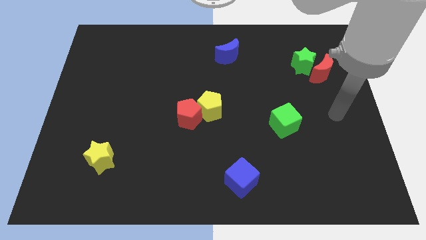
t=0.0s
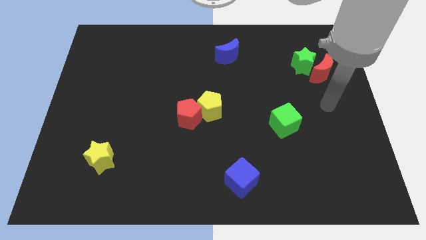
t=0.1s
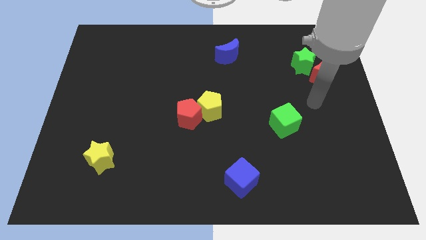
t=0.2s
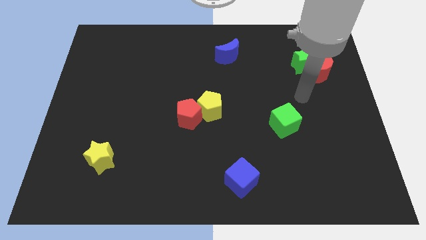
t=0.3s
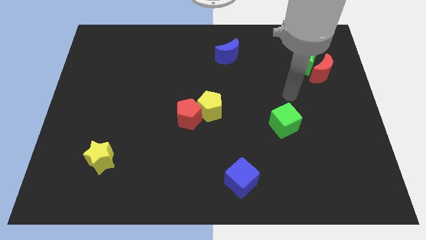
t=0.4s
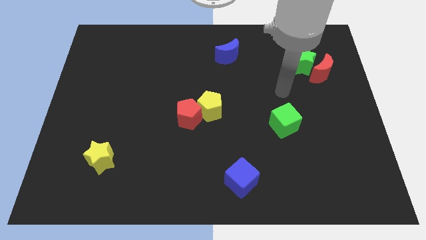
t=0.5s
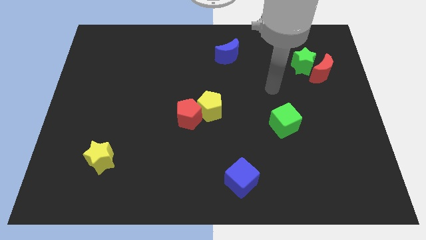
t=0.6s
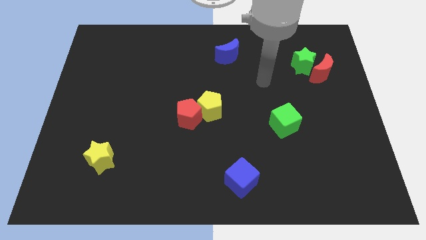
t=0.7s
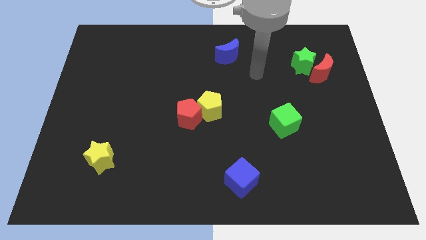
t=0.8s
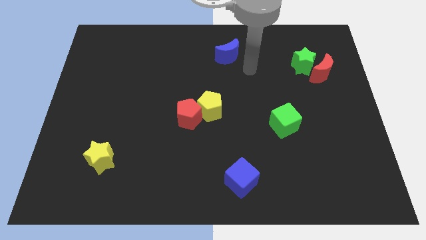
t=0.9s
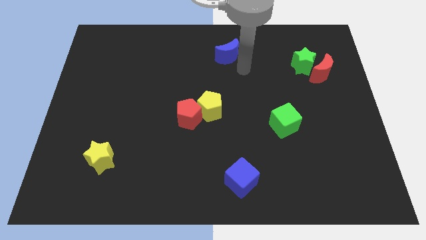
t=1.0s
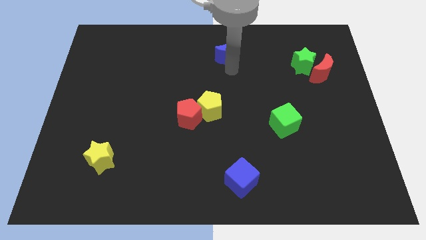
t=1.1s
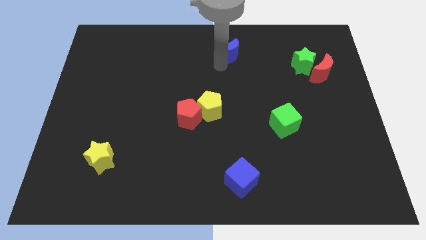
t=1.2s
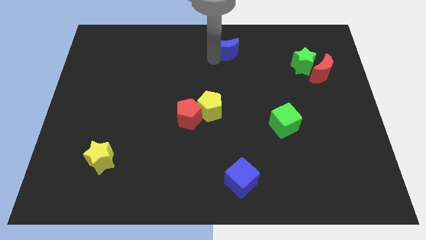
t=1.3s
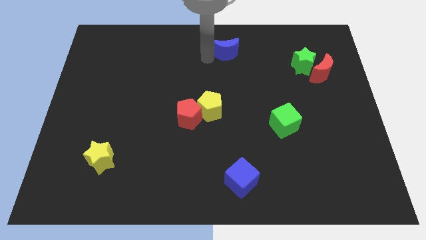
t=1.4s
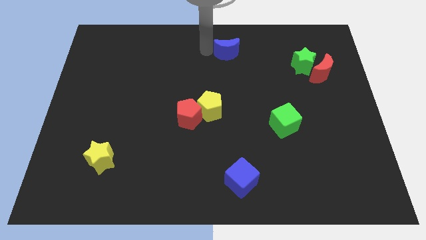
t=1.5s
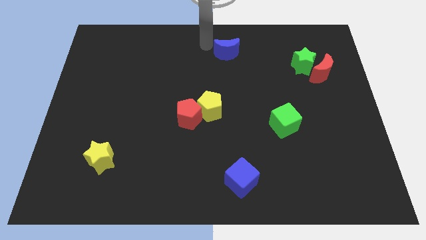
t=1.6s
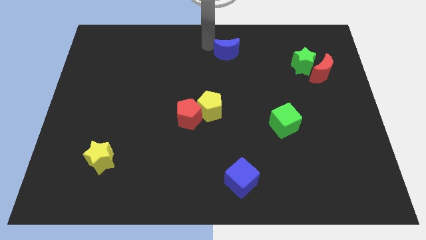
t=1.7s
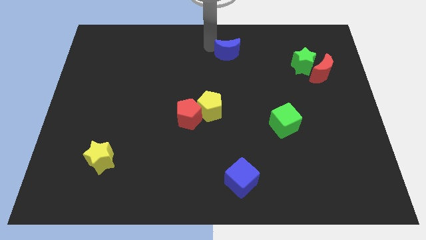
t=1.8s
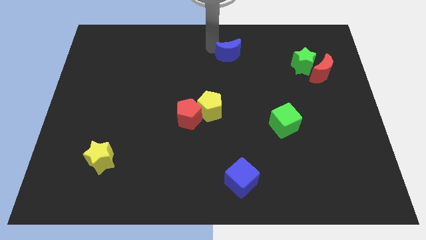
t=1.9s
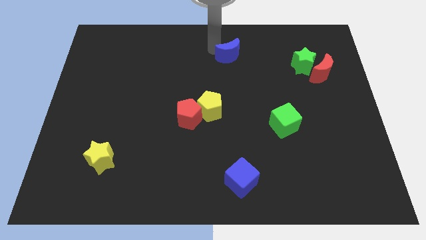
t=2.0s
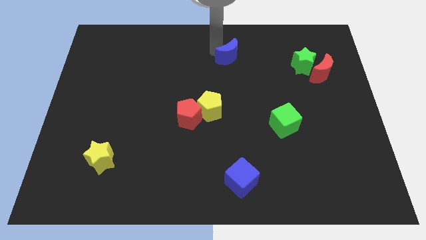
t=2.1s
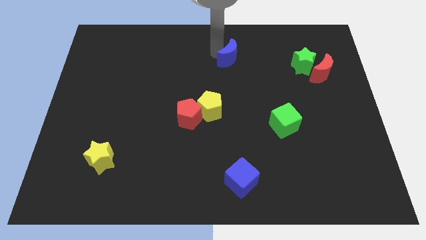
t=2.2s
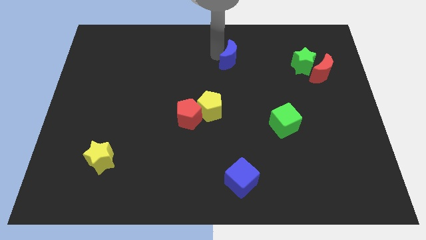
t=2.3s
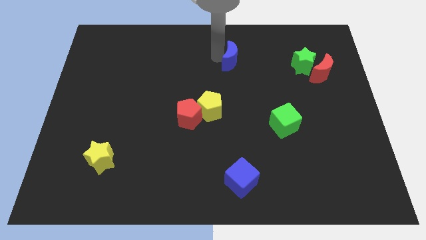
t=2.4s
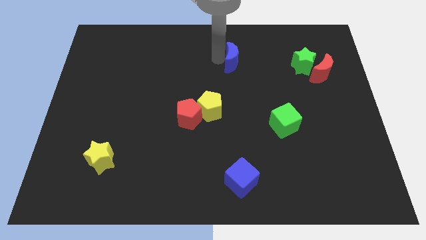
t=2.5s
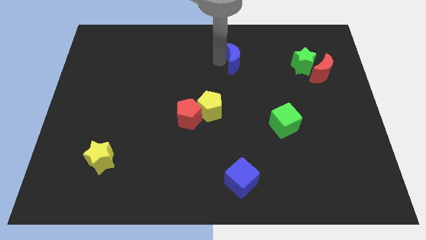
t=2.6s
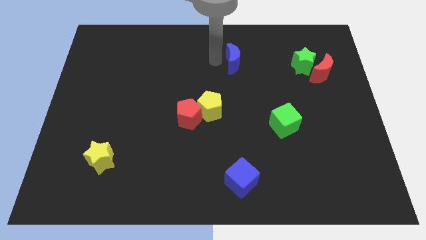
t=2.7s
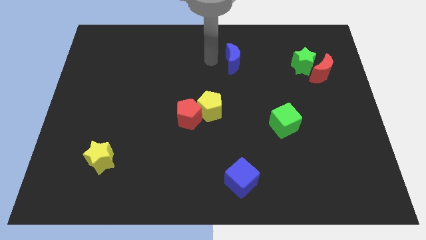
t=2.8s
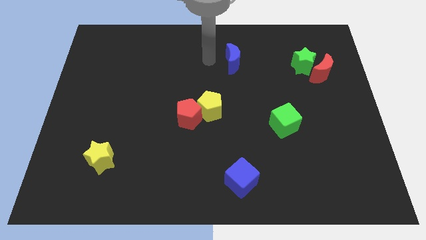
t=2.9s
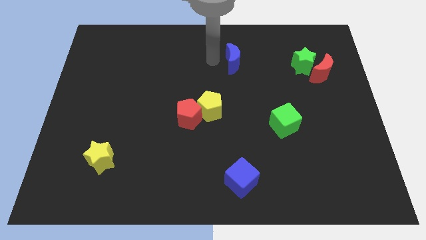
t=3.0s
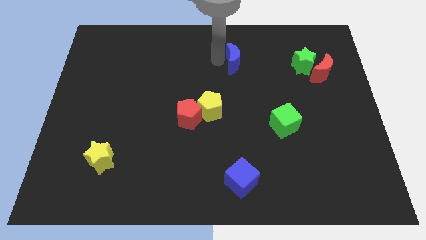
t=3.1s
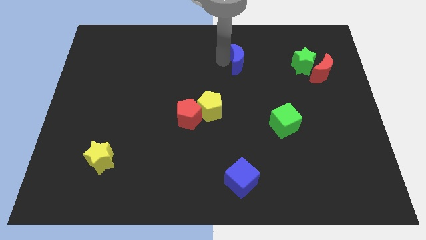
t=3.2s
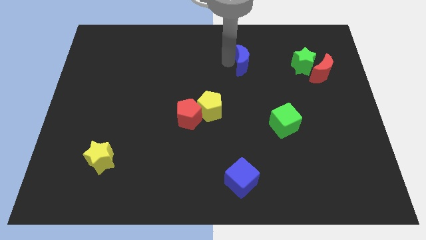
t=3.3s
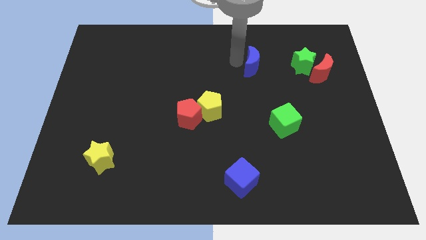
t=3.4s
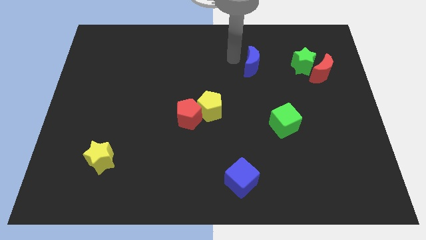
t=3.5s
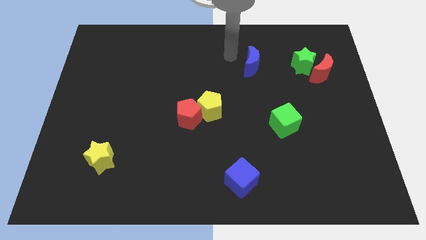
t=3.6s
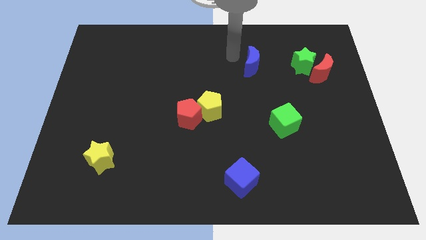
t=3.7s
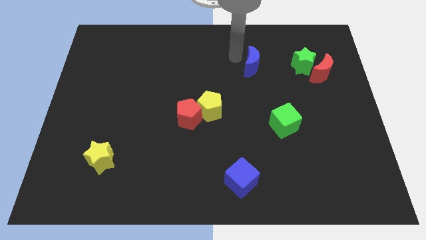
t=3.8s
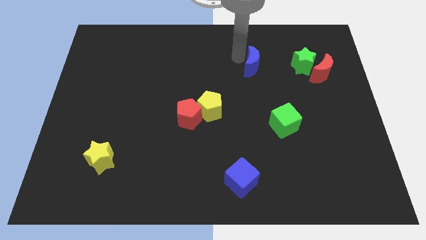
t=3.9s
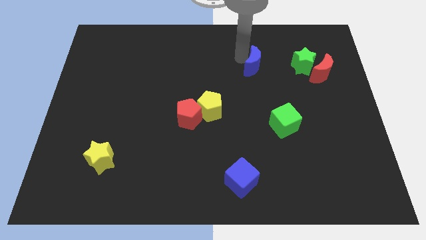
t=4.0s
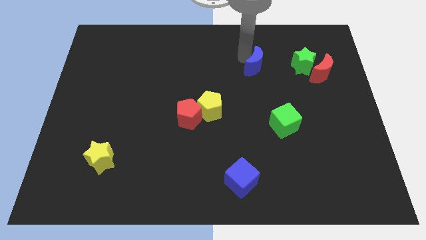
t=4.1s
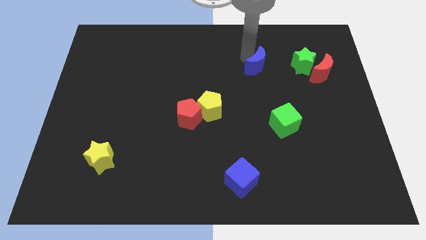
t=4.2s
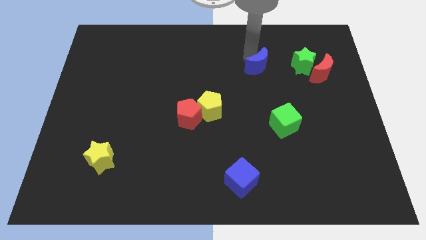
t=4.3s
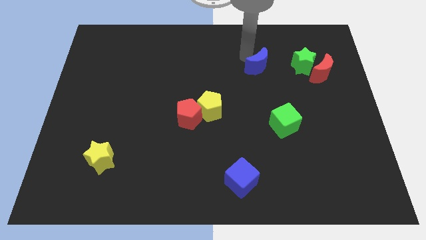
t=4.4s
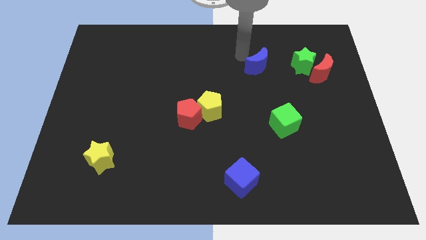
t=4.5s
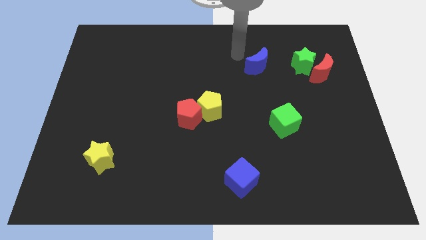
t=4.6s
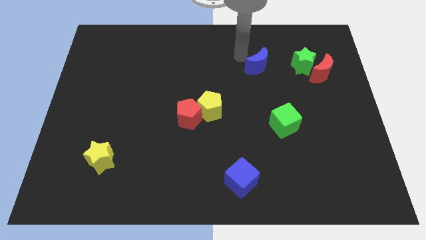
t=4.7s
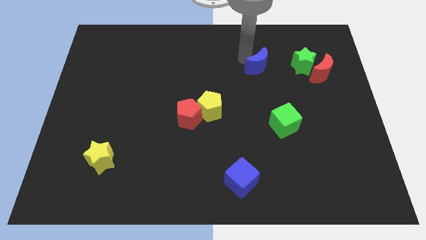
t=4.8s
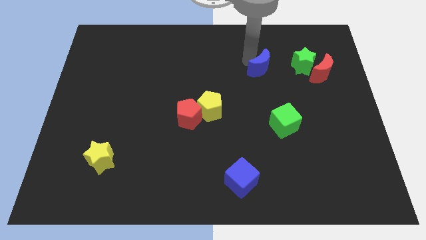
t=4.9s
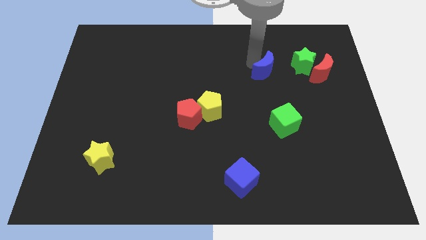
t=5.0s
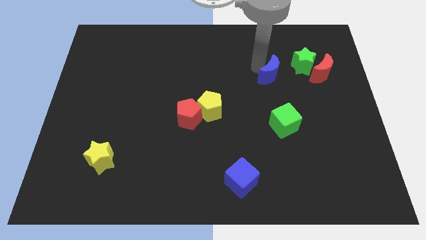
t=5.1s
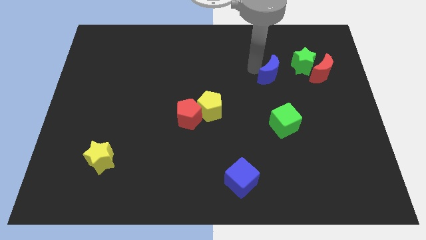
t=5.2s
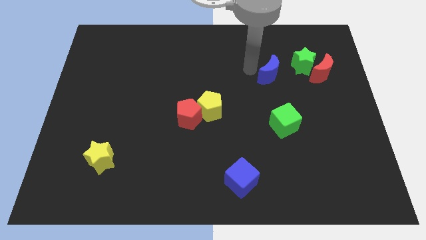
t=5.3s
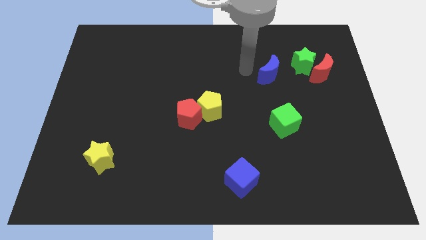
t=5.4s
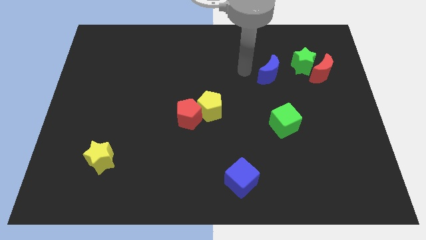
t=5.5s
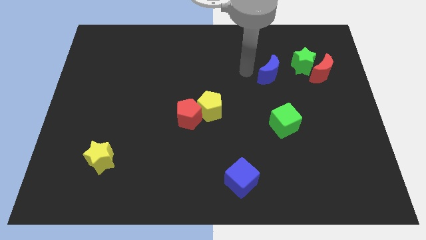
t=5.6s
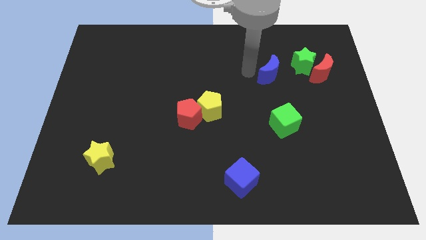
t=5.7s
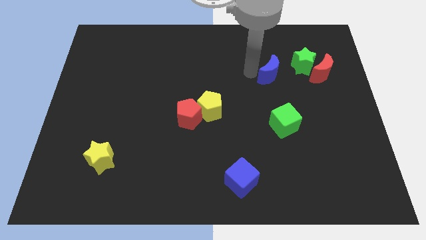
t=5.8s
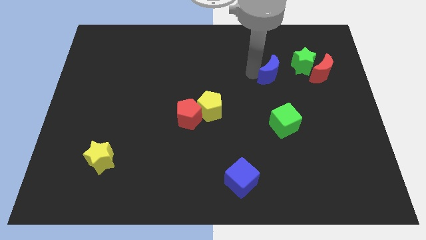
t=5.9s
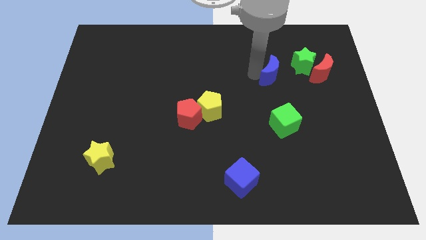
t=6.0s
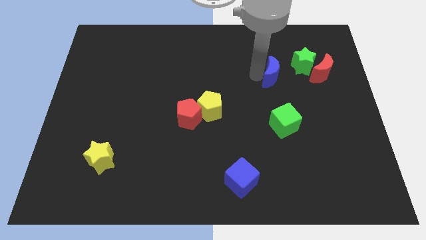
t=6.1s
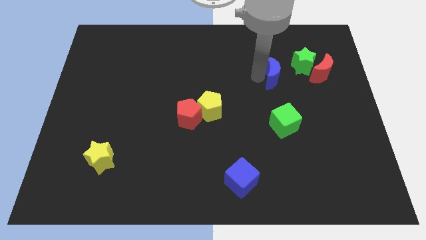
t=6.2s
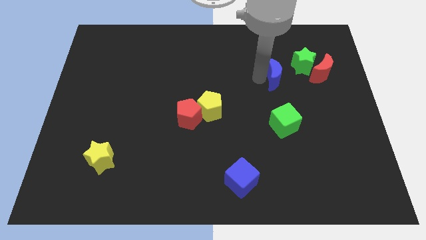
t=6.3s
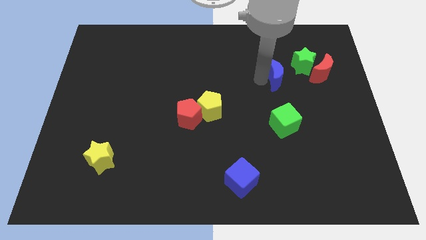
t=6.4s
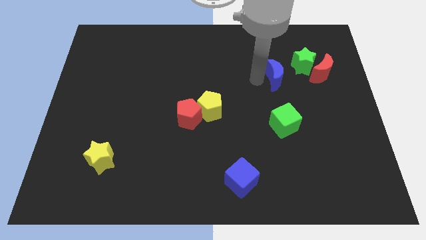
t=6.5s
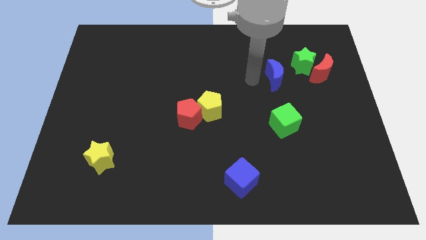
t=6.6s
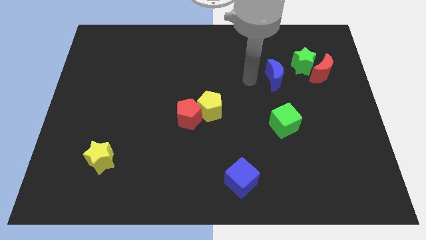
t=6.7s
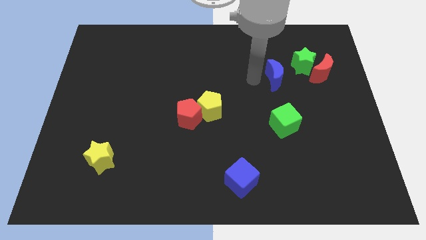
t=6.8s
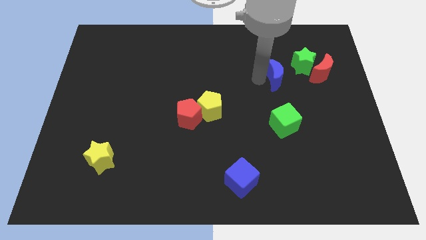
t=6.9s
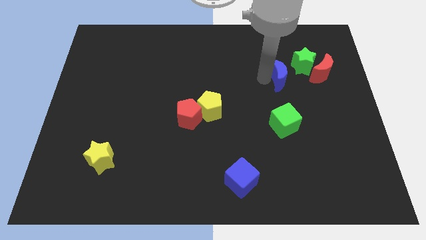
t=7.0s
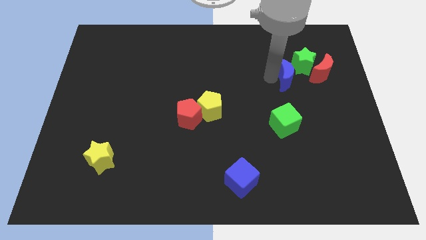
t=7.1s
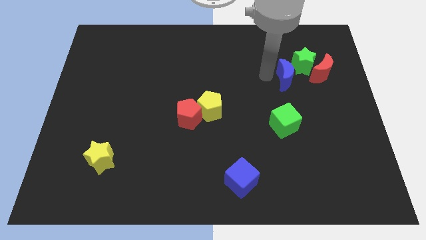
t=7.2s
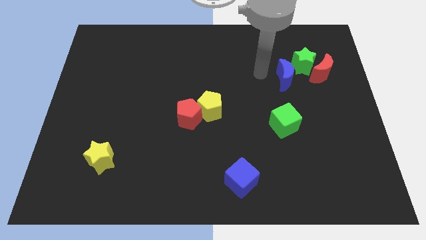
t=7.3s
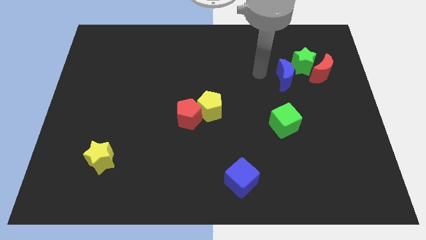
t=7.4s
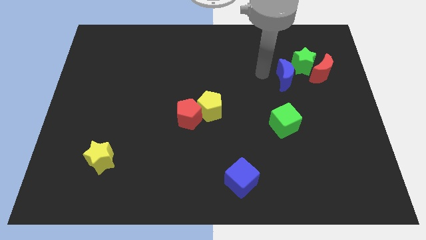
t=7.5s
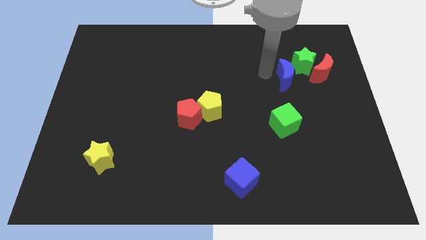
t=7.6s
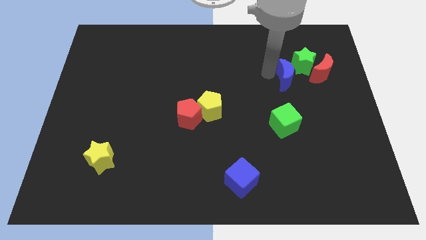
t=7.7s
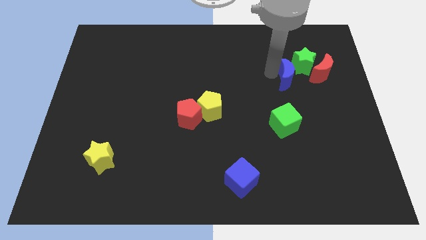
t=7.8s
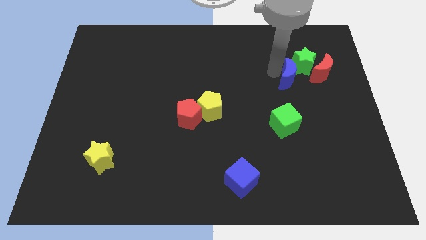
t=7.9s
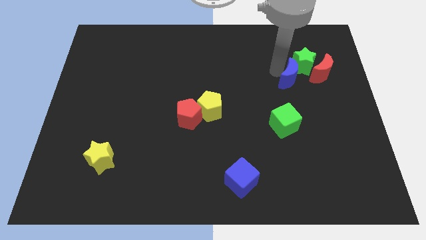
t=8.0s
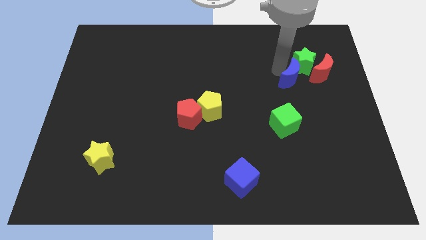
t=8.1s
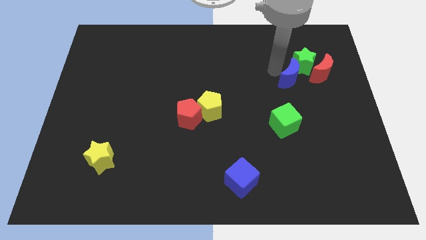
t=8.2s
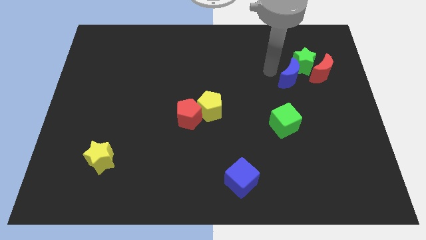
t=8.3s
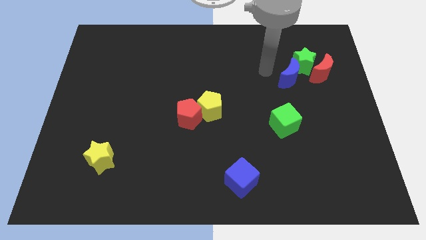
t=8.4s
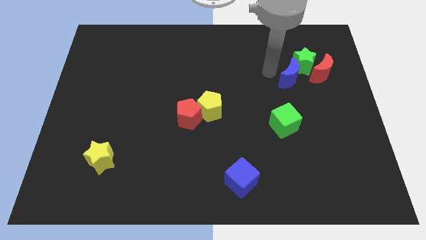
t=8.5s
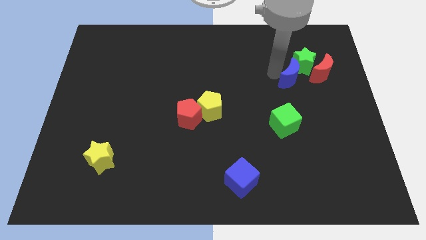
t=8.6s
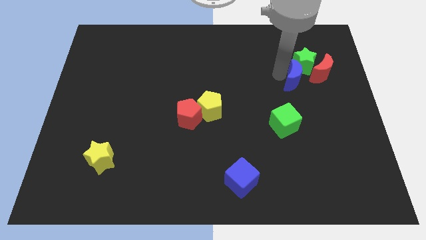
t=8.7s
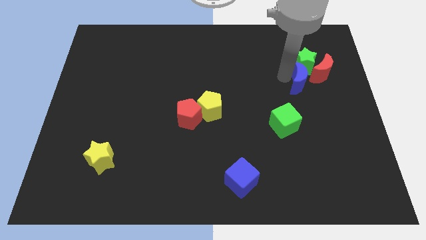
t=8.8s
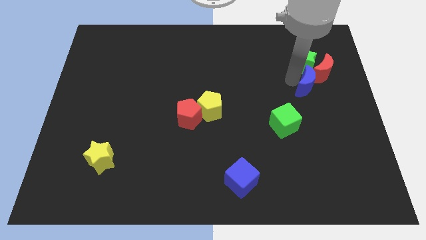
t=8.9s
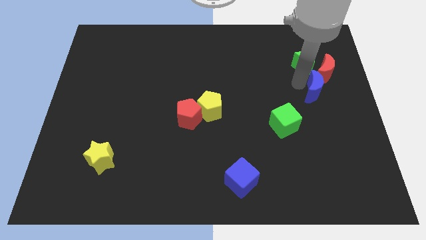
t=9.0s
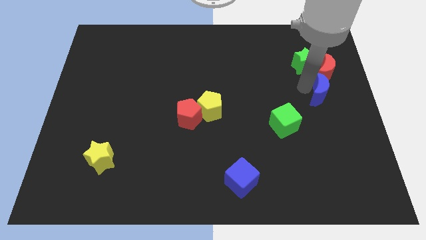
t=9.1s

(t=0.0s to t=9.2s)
move the blue moon to the right side of the board
